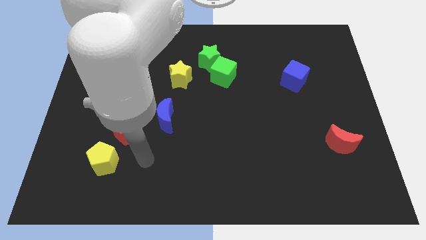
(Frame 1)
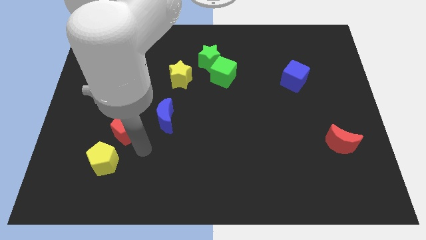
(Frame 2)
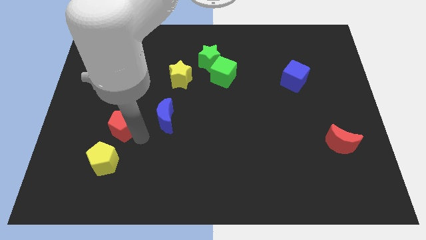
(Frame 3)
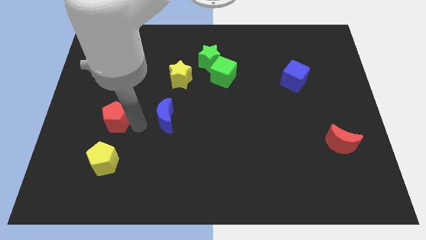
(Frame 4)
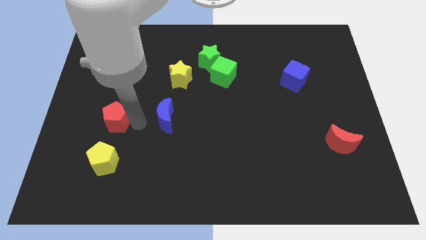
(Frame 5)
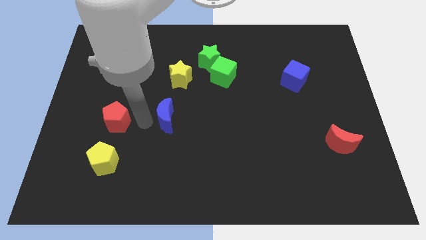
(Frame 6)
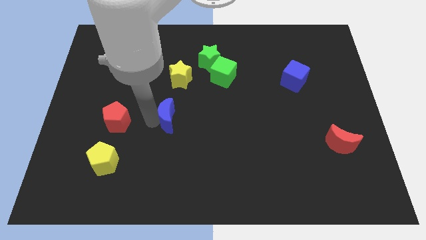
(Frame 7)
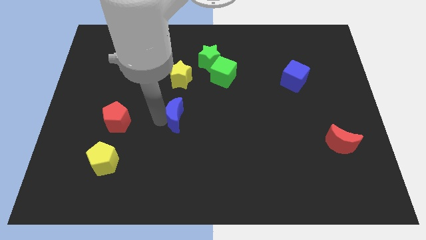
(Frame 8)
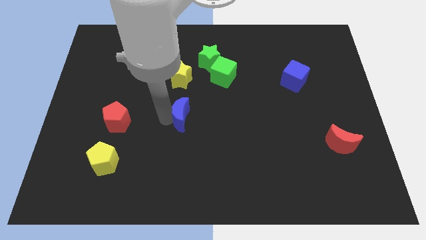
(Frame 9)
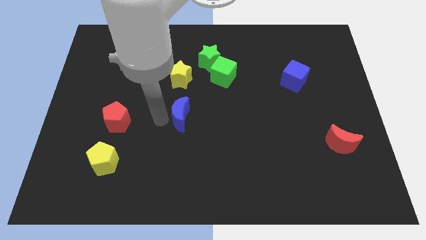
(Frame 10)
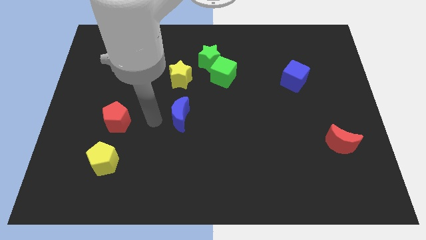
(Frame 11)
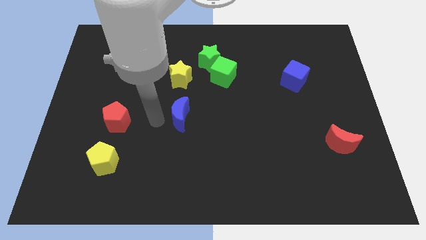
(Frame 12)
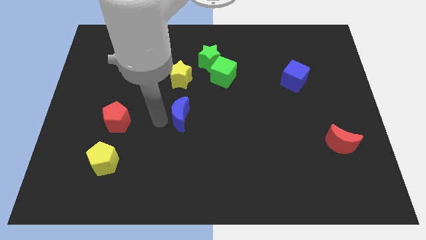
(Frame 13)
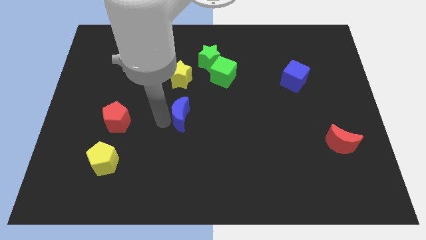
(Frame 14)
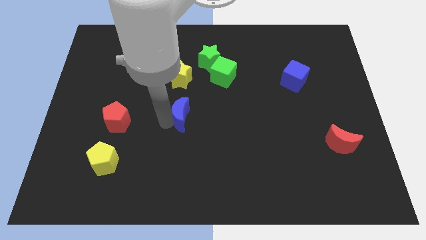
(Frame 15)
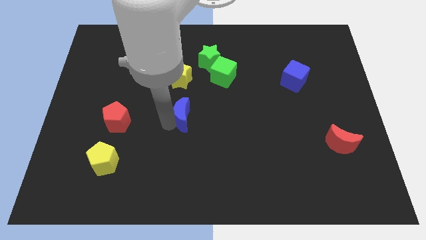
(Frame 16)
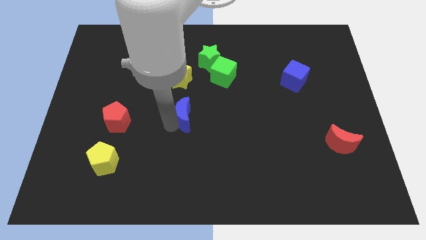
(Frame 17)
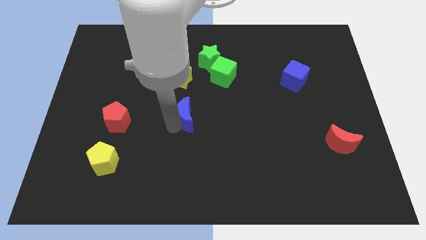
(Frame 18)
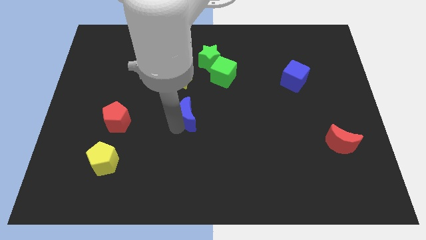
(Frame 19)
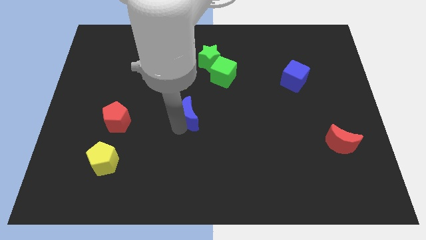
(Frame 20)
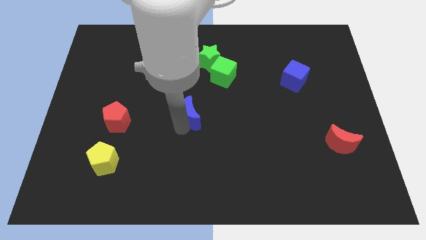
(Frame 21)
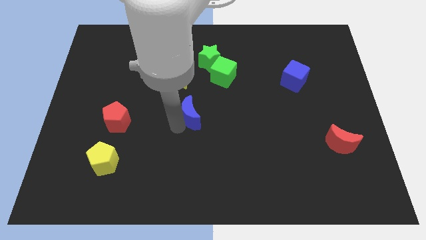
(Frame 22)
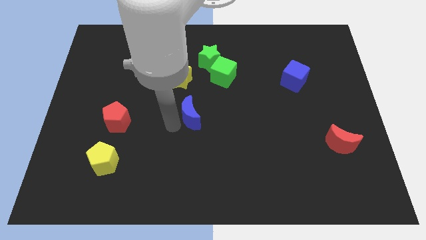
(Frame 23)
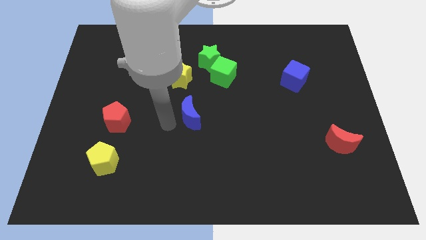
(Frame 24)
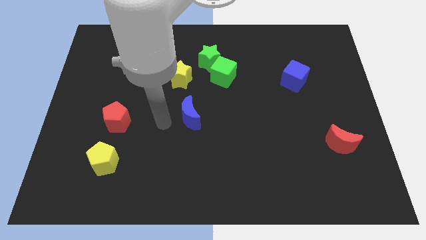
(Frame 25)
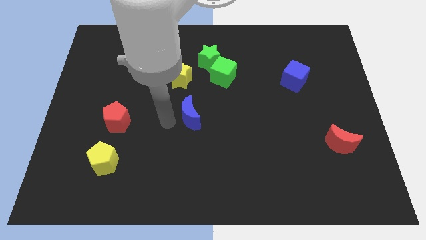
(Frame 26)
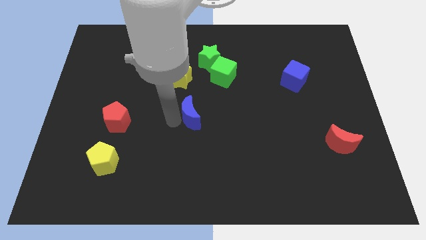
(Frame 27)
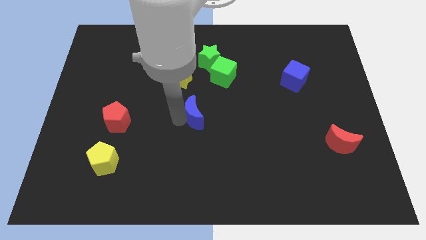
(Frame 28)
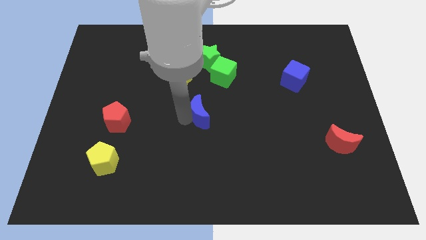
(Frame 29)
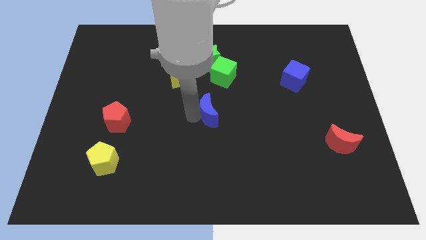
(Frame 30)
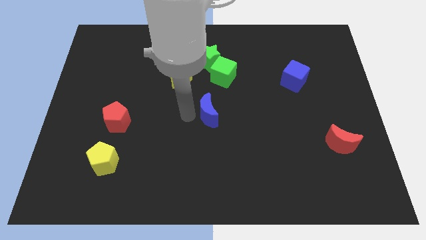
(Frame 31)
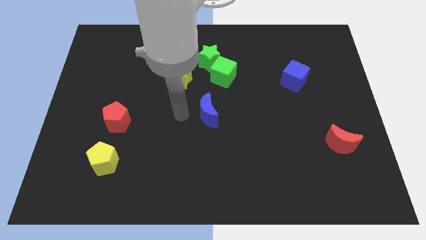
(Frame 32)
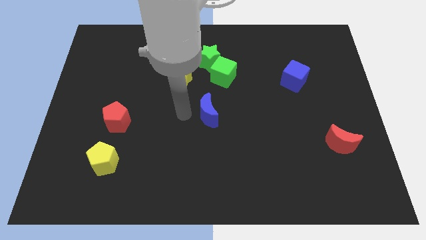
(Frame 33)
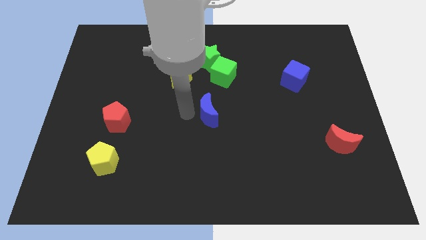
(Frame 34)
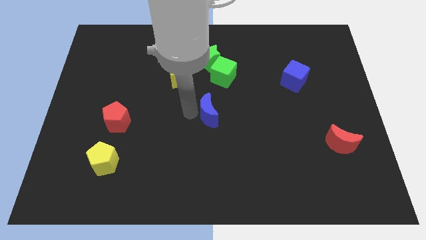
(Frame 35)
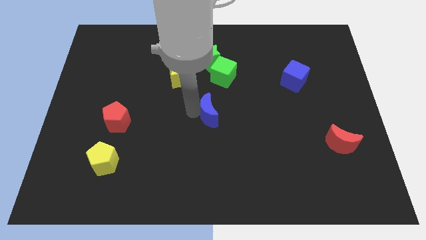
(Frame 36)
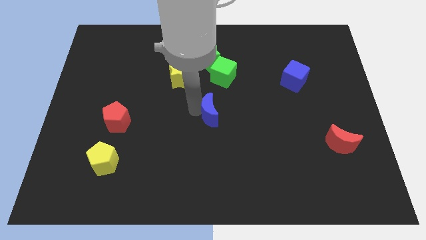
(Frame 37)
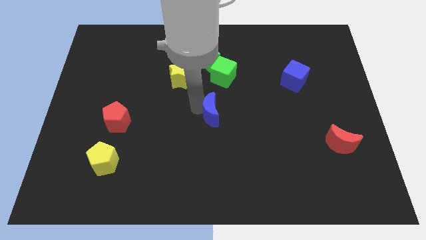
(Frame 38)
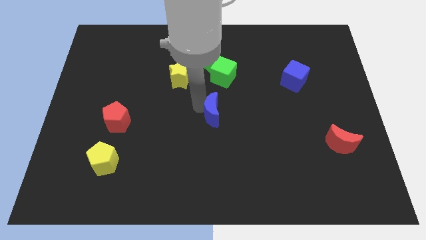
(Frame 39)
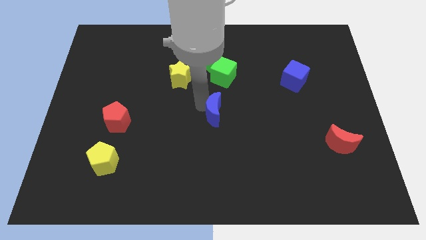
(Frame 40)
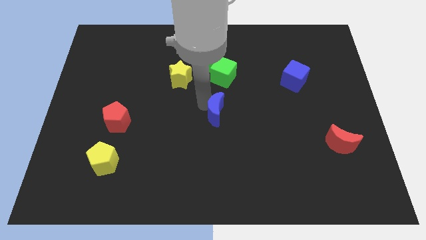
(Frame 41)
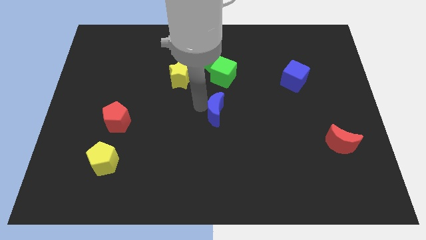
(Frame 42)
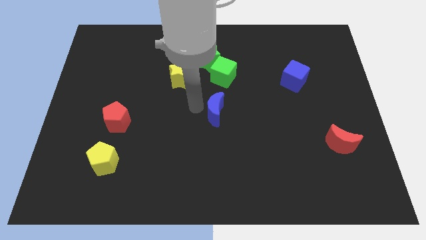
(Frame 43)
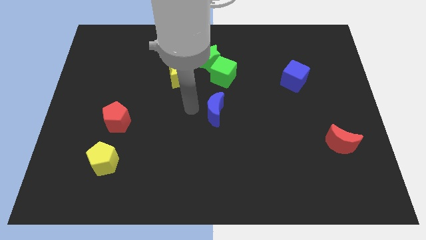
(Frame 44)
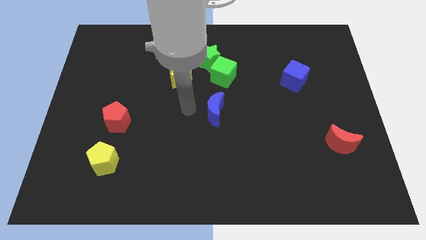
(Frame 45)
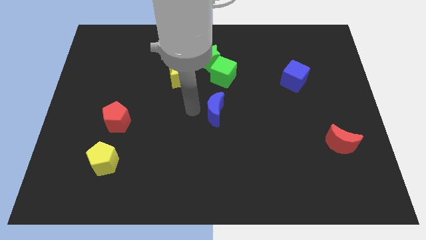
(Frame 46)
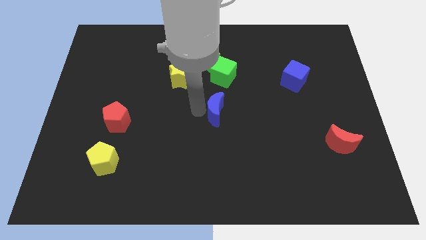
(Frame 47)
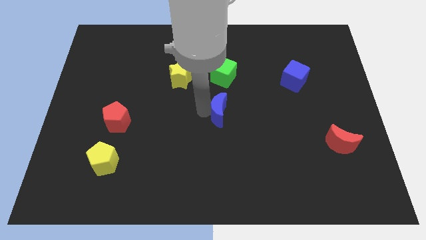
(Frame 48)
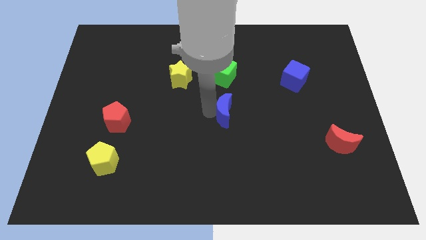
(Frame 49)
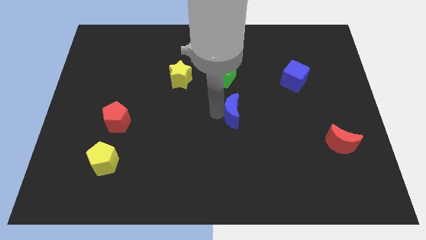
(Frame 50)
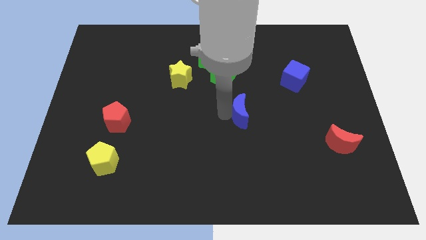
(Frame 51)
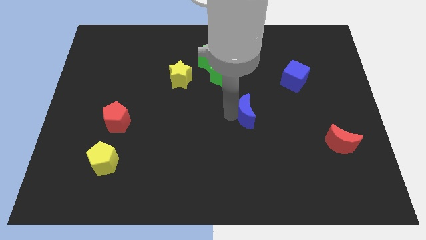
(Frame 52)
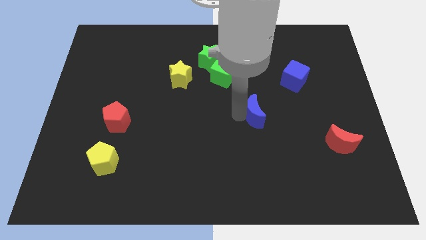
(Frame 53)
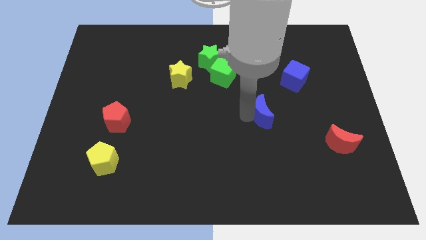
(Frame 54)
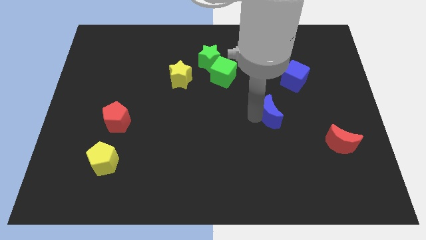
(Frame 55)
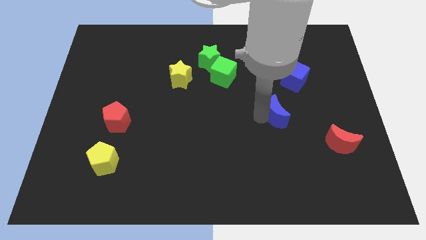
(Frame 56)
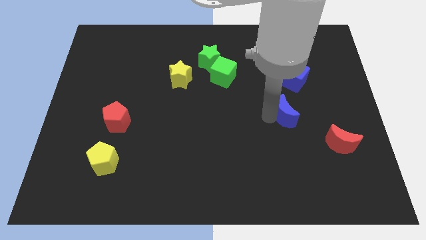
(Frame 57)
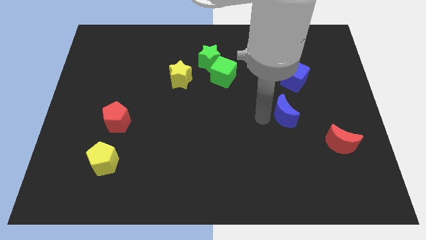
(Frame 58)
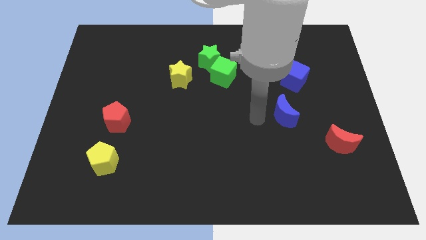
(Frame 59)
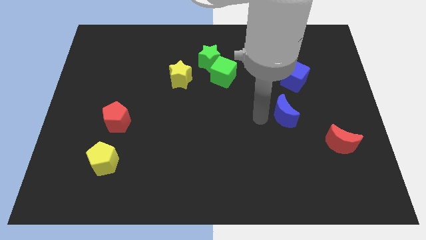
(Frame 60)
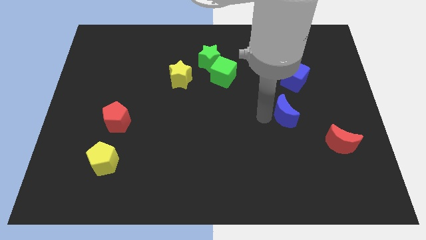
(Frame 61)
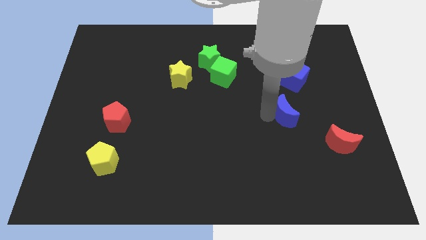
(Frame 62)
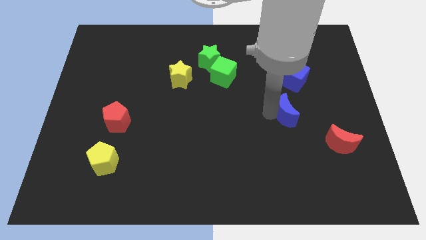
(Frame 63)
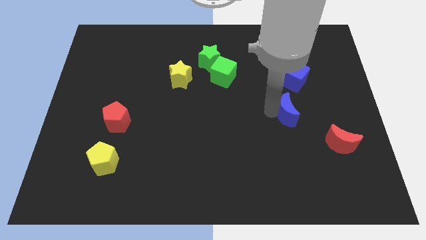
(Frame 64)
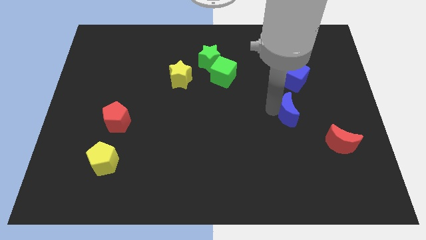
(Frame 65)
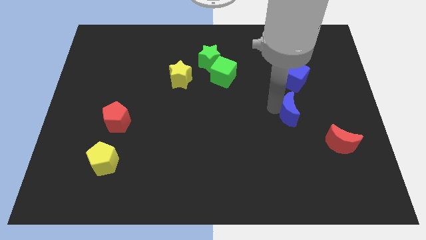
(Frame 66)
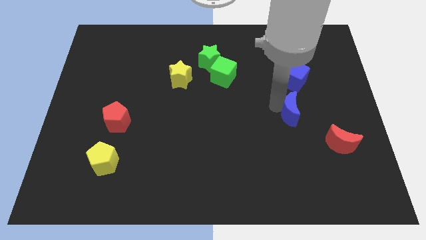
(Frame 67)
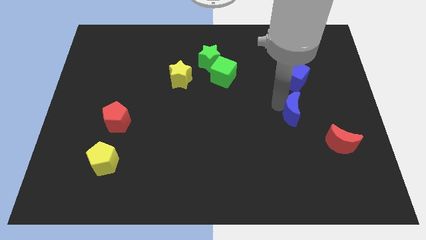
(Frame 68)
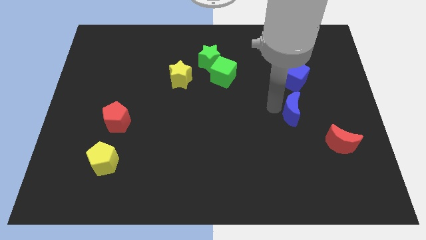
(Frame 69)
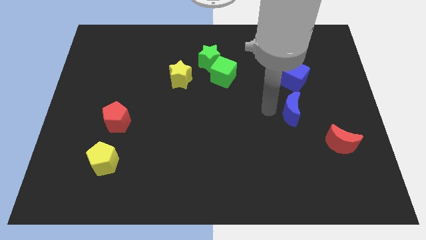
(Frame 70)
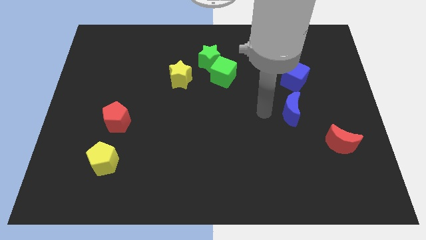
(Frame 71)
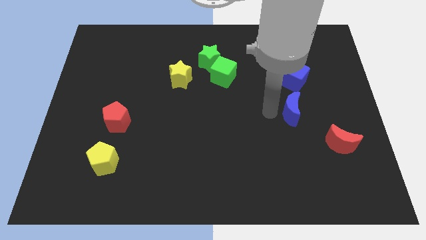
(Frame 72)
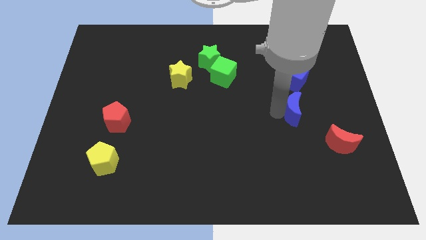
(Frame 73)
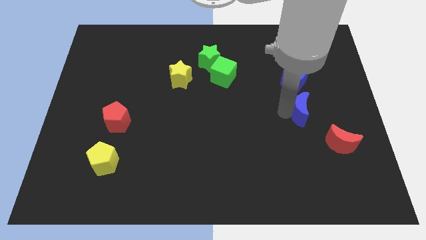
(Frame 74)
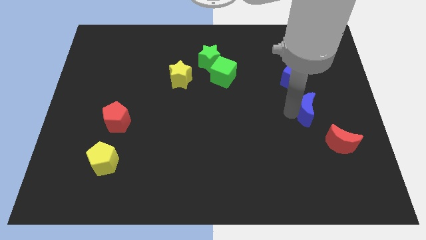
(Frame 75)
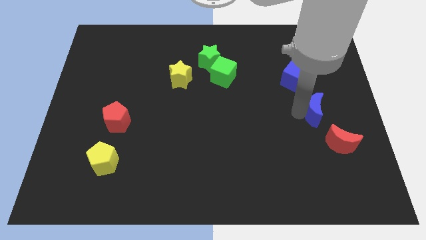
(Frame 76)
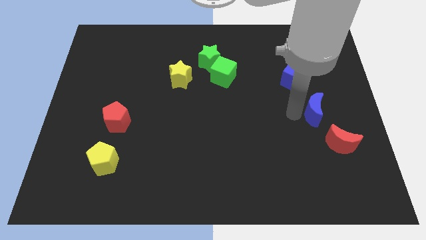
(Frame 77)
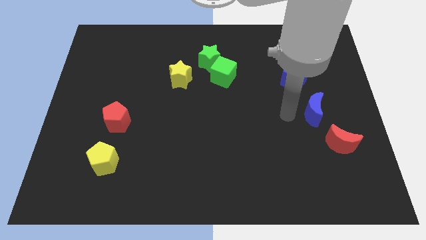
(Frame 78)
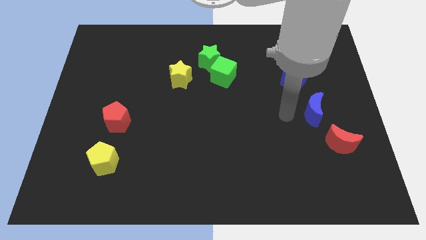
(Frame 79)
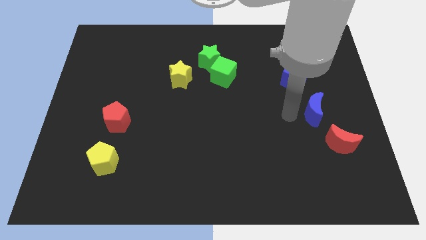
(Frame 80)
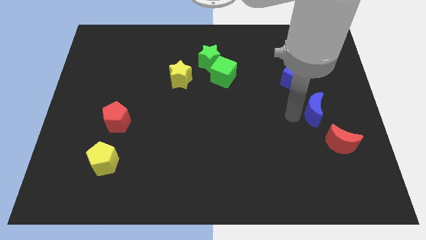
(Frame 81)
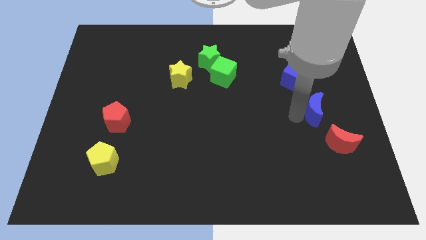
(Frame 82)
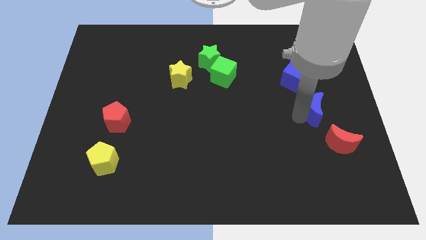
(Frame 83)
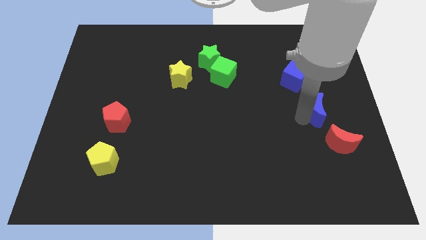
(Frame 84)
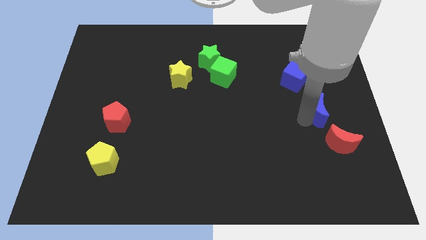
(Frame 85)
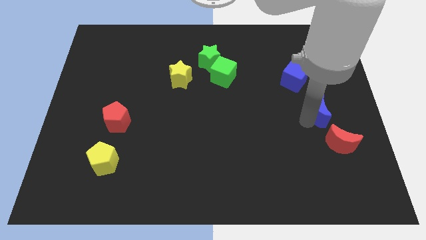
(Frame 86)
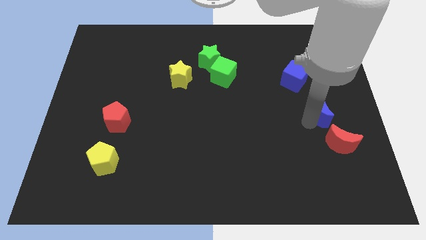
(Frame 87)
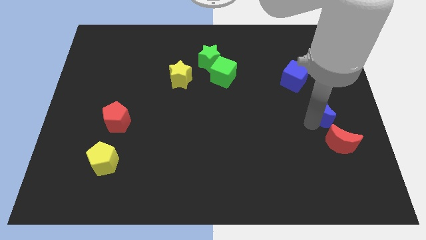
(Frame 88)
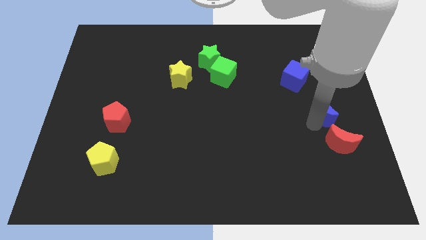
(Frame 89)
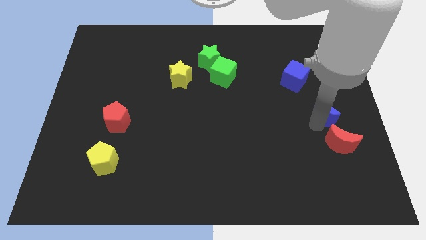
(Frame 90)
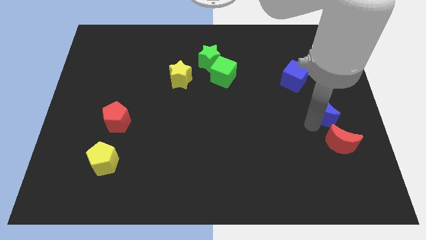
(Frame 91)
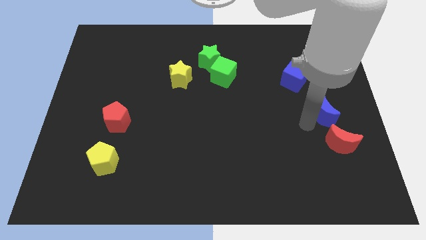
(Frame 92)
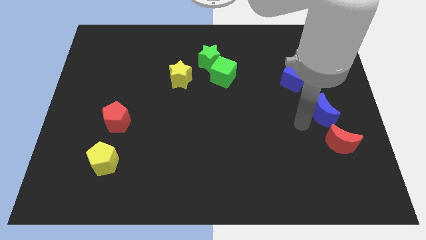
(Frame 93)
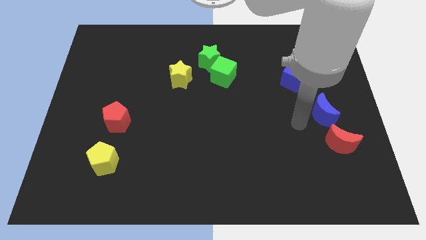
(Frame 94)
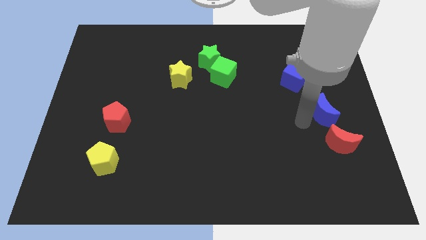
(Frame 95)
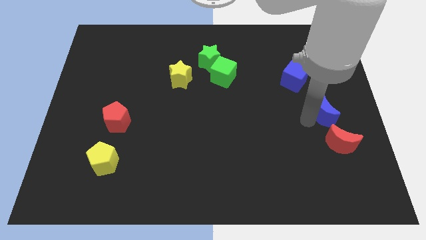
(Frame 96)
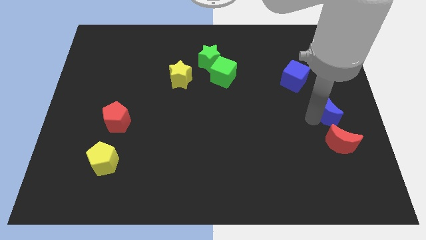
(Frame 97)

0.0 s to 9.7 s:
slide the blue moon to the right side of the board
